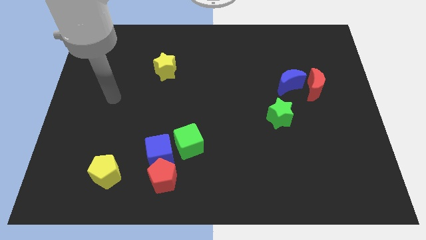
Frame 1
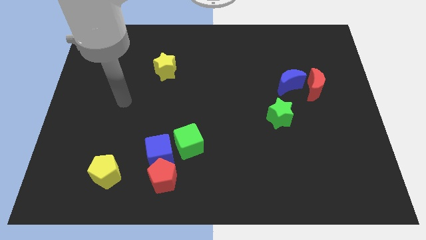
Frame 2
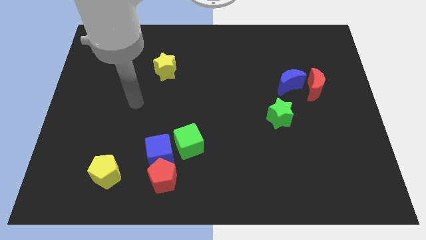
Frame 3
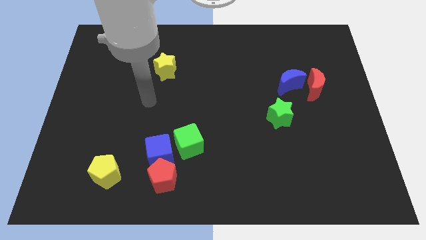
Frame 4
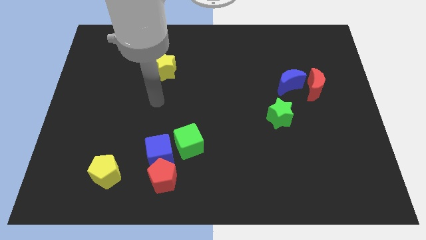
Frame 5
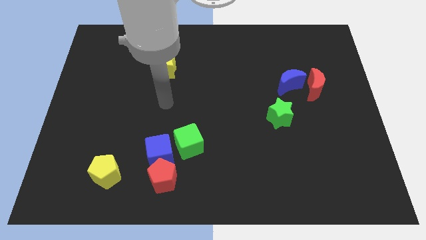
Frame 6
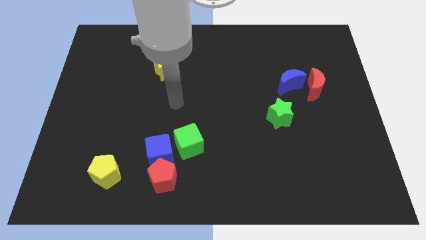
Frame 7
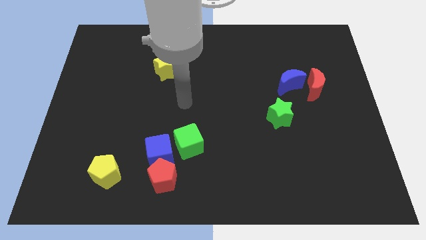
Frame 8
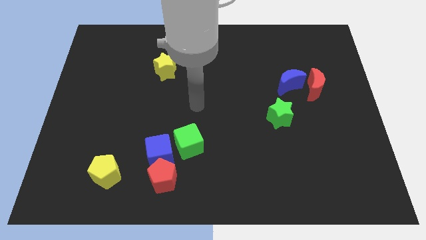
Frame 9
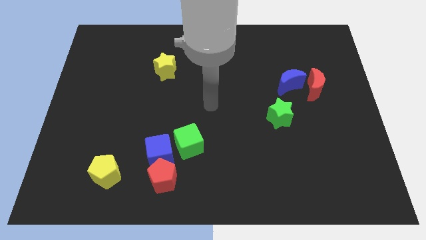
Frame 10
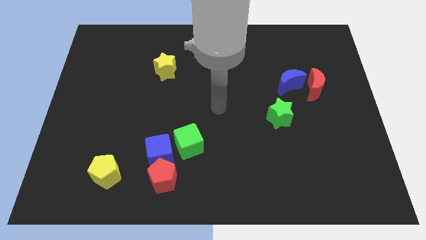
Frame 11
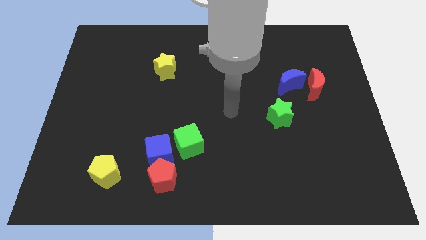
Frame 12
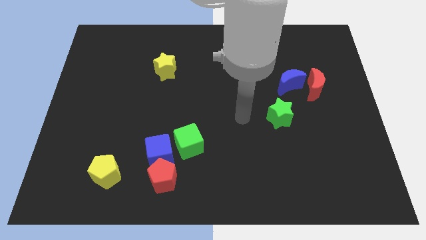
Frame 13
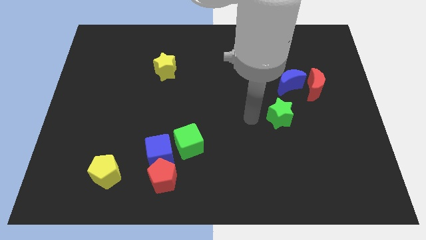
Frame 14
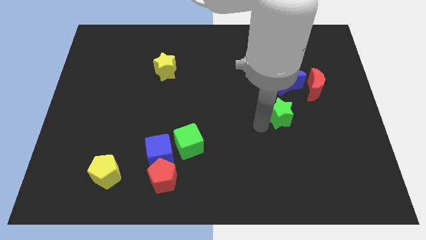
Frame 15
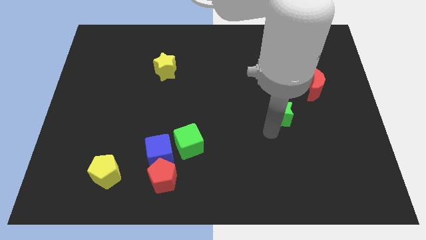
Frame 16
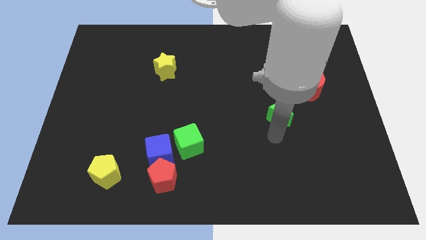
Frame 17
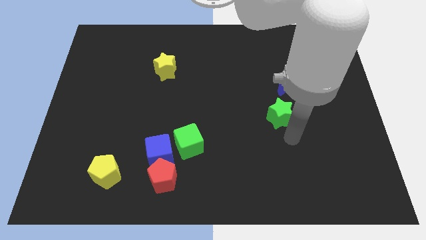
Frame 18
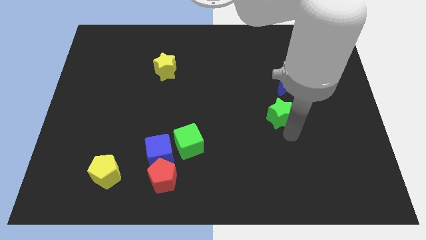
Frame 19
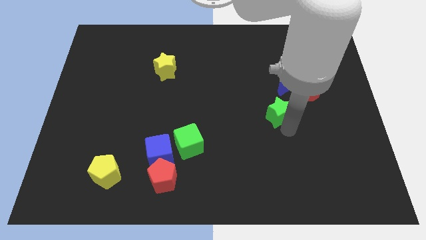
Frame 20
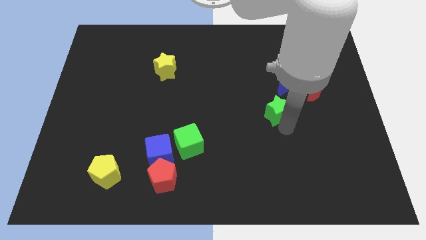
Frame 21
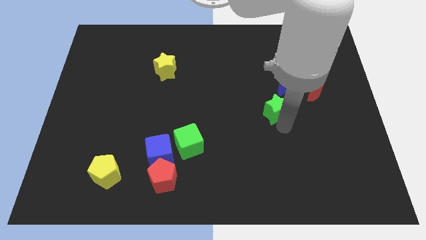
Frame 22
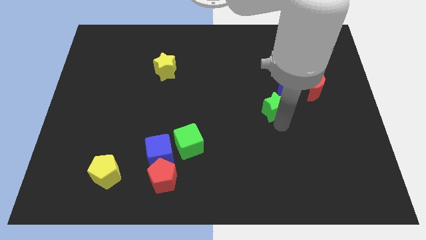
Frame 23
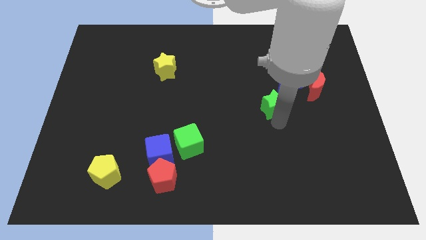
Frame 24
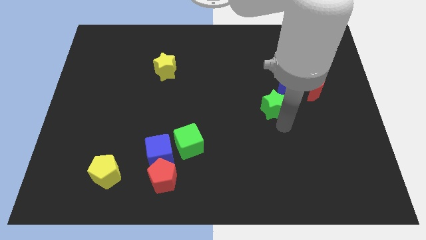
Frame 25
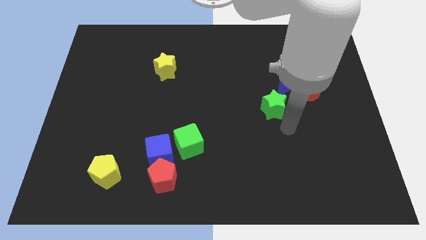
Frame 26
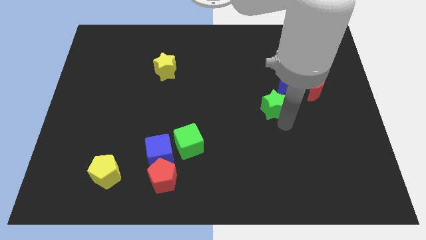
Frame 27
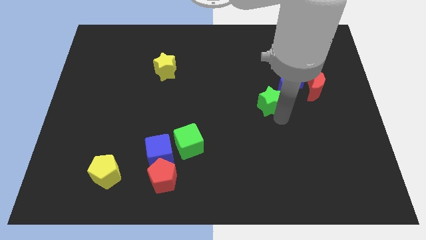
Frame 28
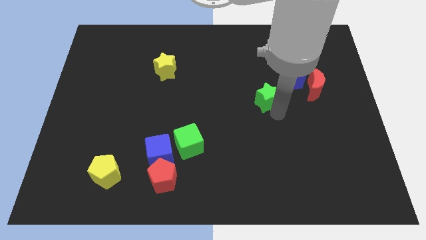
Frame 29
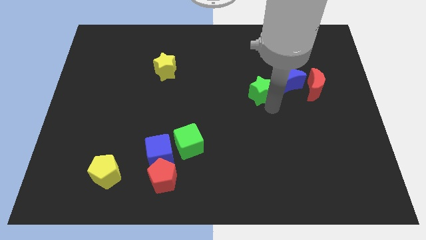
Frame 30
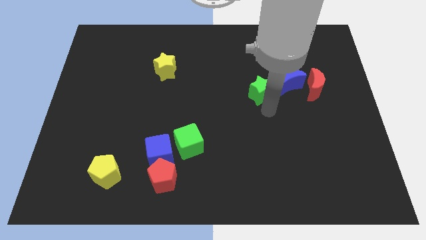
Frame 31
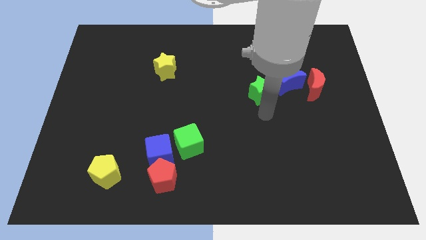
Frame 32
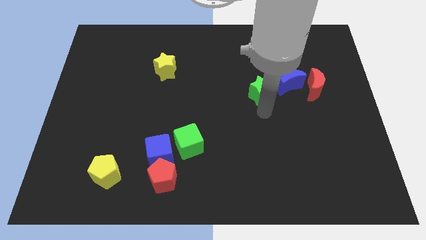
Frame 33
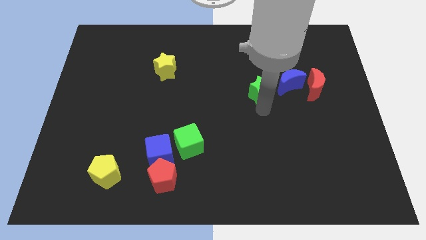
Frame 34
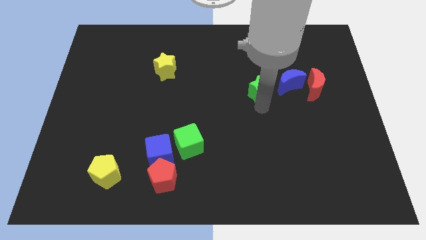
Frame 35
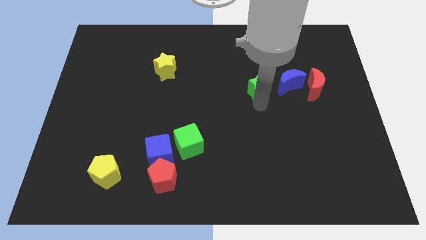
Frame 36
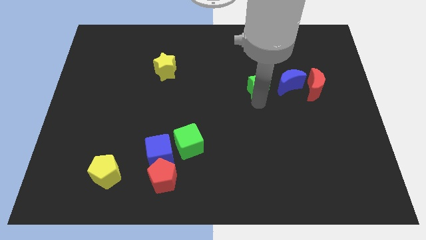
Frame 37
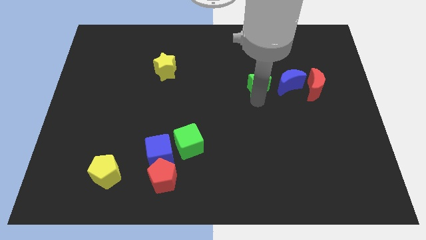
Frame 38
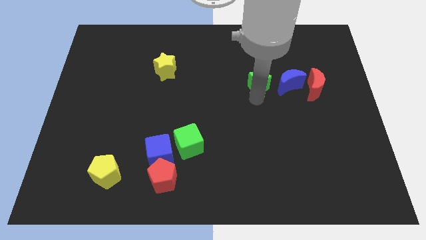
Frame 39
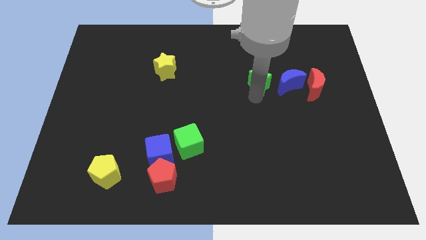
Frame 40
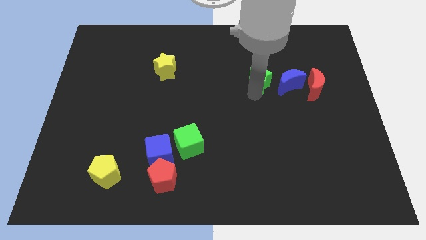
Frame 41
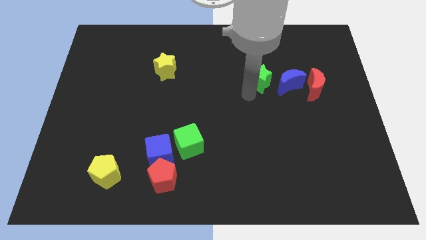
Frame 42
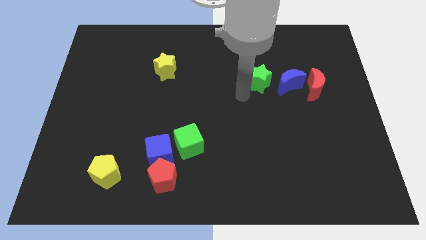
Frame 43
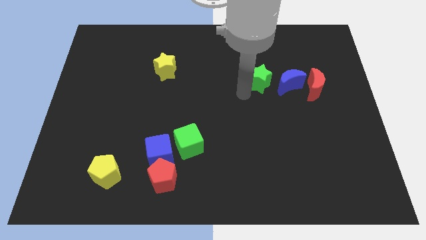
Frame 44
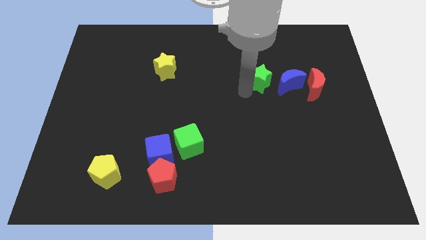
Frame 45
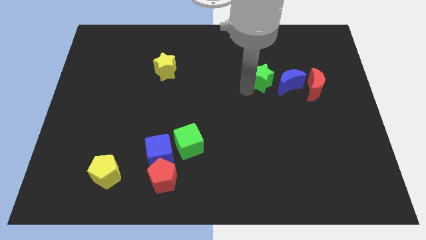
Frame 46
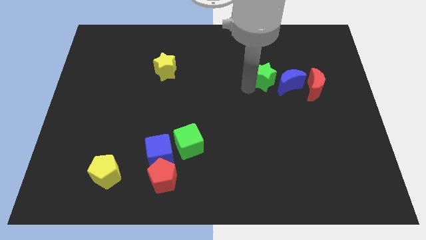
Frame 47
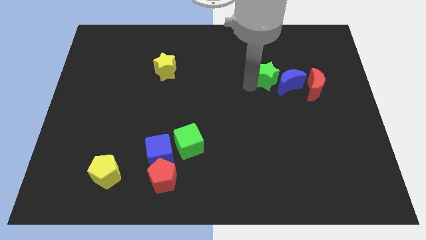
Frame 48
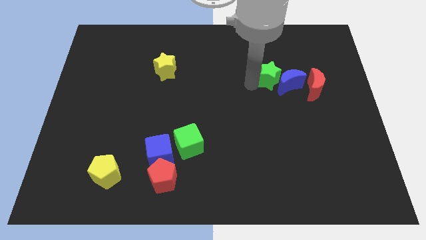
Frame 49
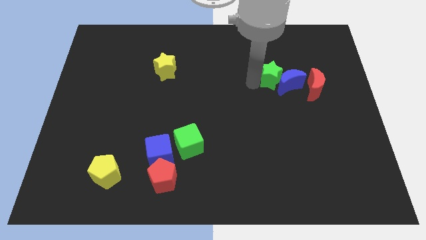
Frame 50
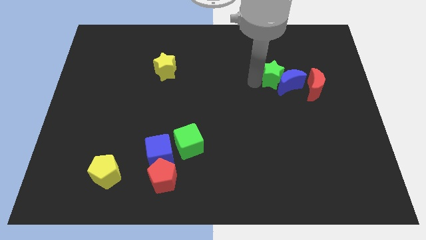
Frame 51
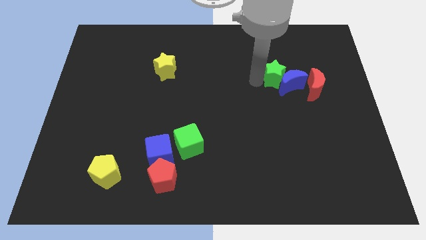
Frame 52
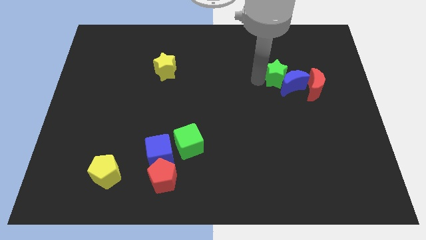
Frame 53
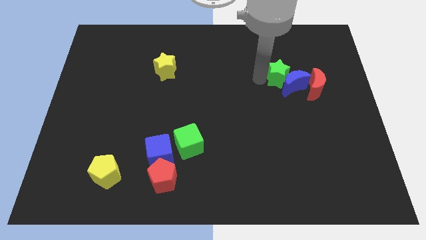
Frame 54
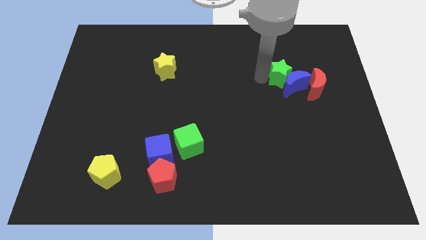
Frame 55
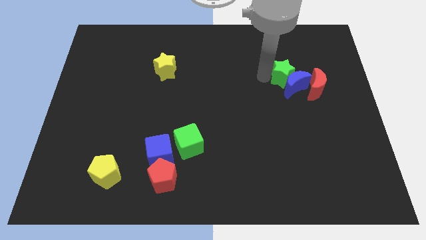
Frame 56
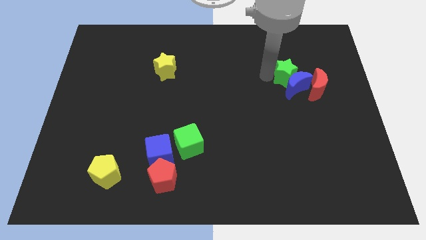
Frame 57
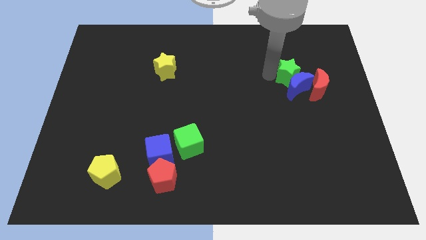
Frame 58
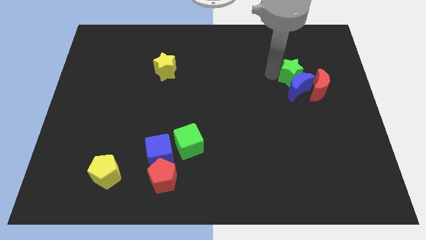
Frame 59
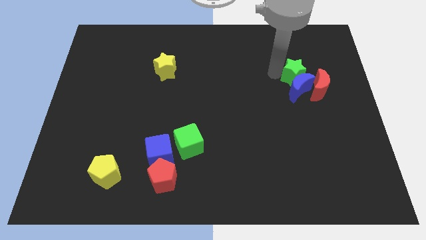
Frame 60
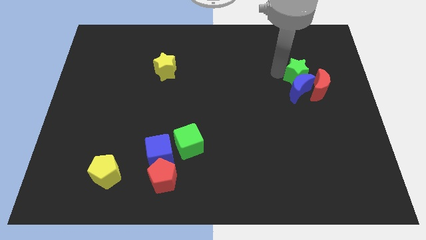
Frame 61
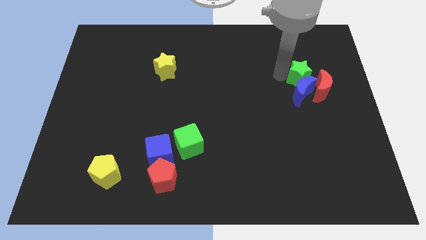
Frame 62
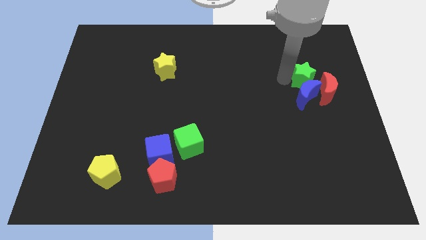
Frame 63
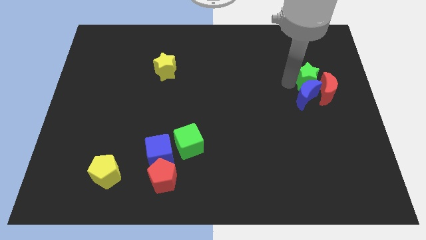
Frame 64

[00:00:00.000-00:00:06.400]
put the green star to the top side of the red moon

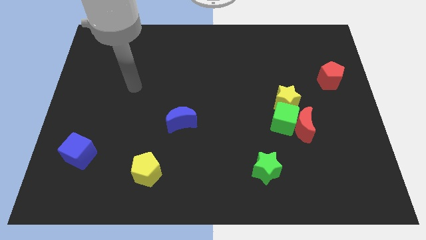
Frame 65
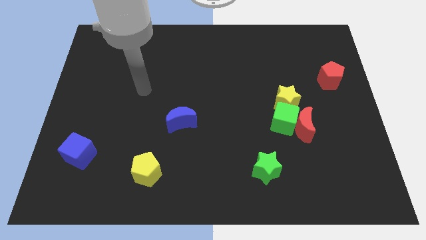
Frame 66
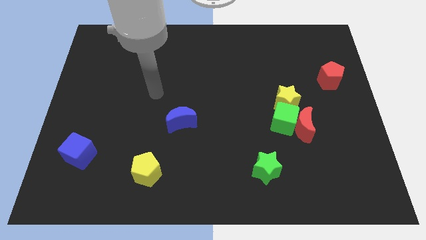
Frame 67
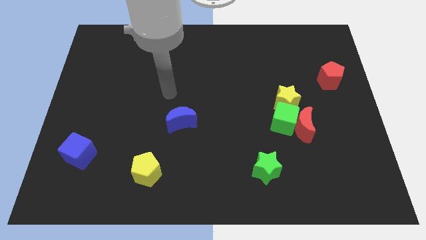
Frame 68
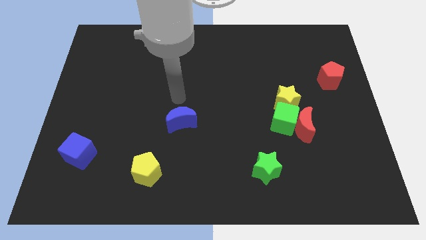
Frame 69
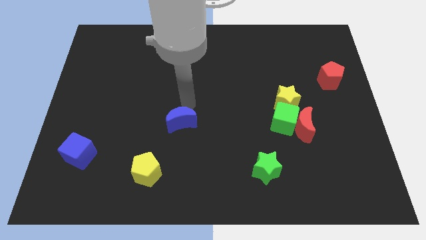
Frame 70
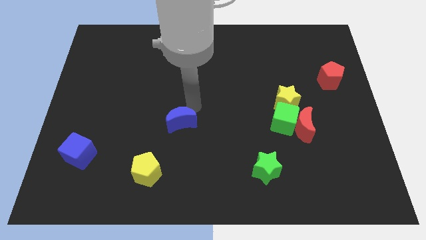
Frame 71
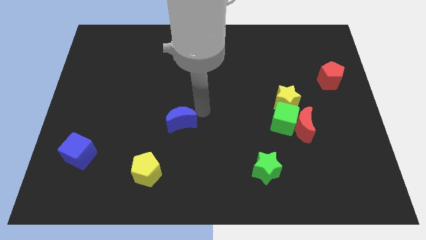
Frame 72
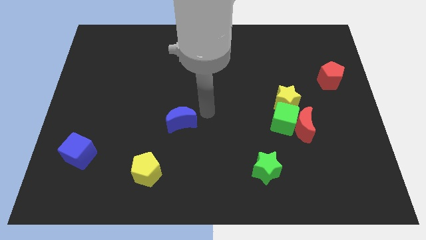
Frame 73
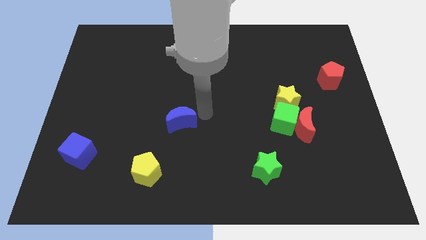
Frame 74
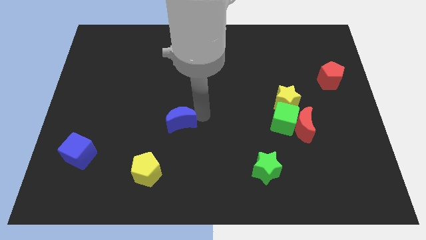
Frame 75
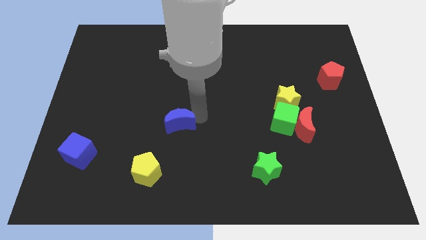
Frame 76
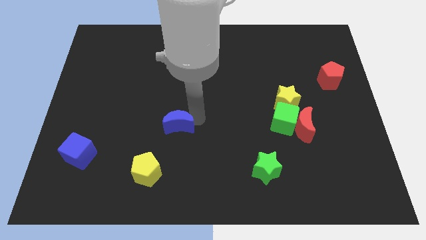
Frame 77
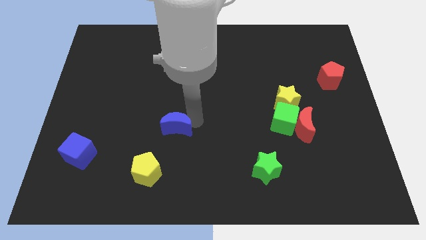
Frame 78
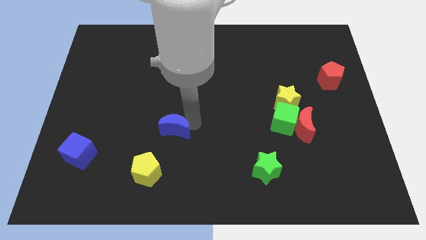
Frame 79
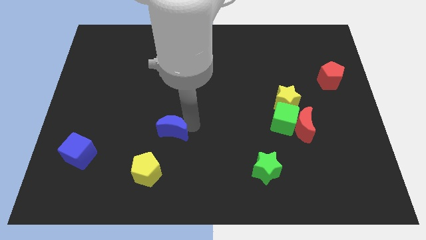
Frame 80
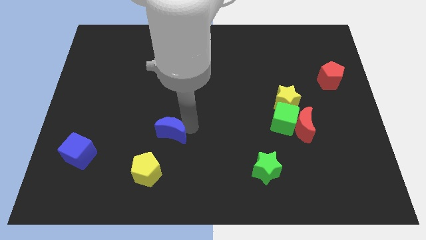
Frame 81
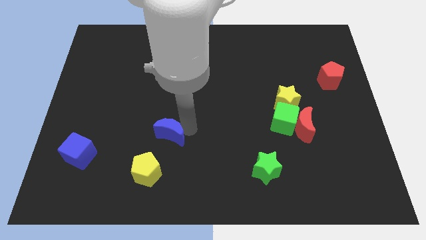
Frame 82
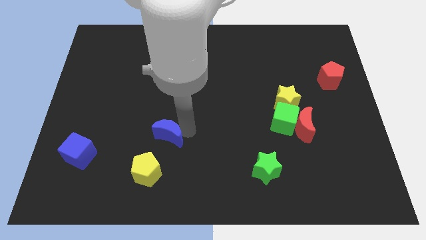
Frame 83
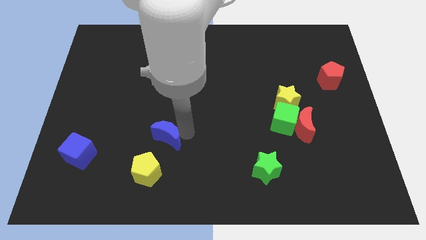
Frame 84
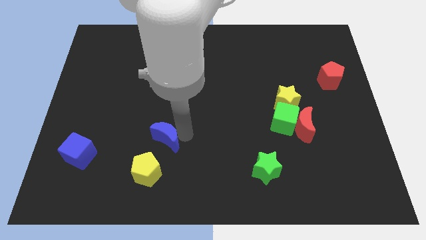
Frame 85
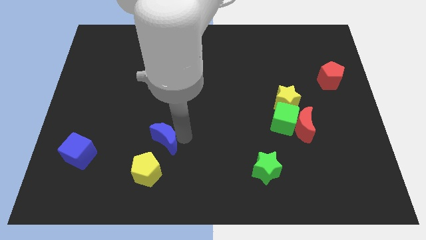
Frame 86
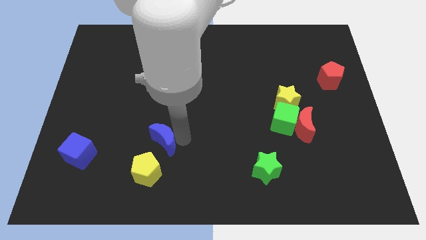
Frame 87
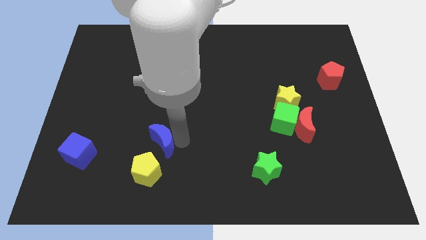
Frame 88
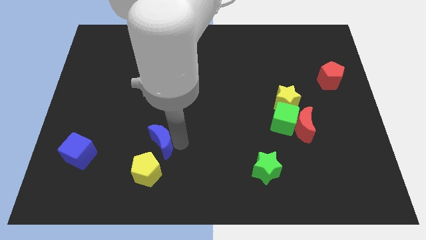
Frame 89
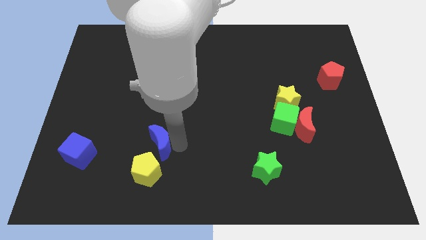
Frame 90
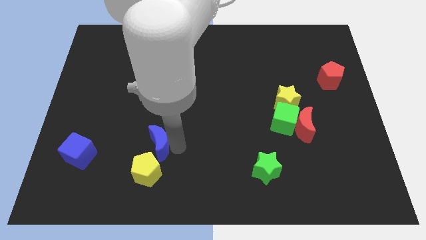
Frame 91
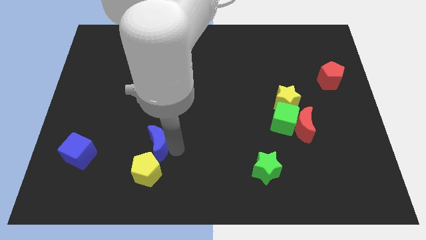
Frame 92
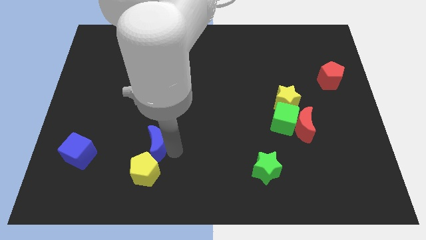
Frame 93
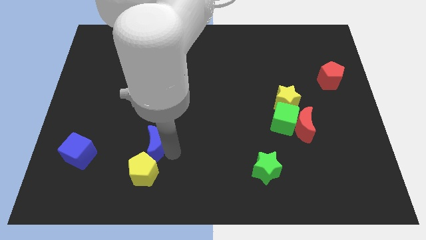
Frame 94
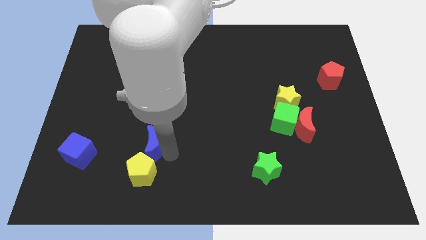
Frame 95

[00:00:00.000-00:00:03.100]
put the blue moon just right of the blue cube
